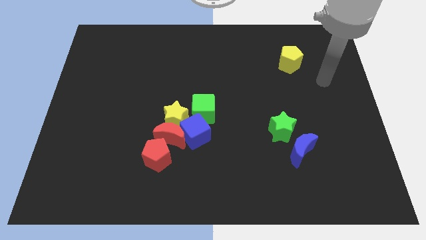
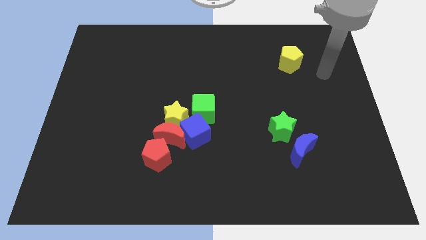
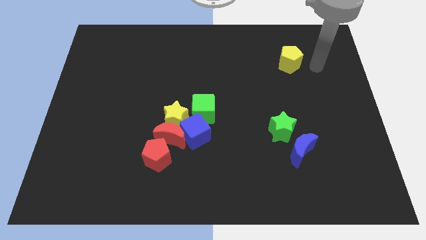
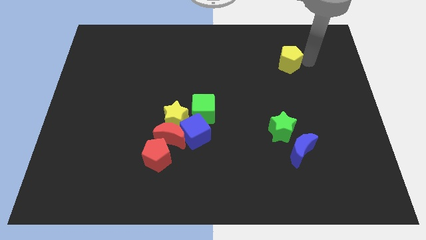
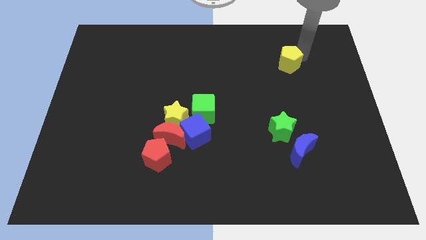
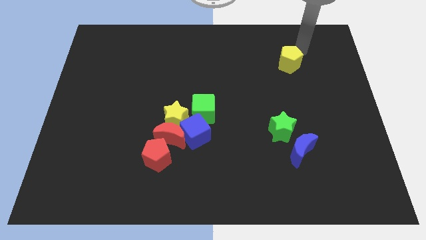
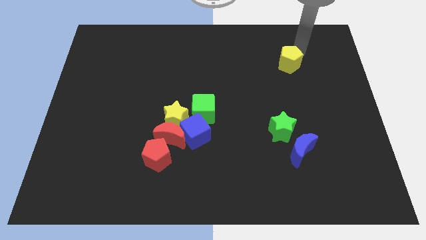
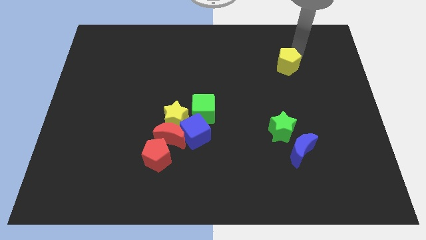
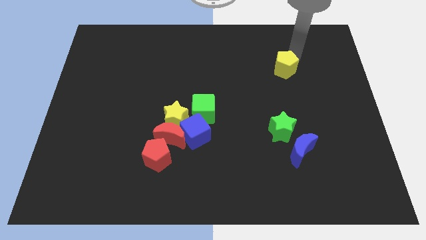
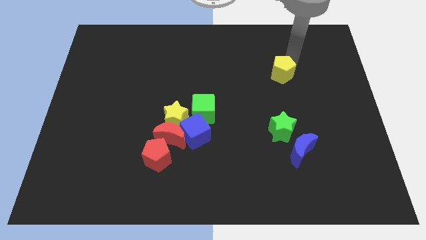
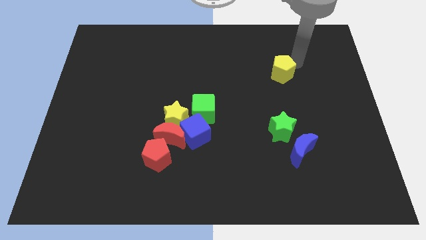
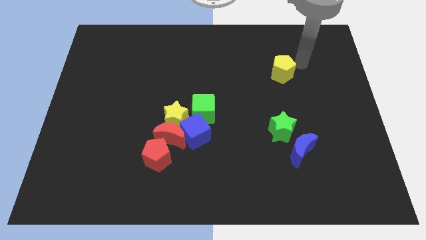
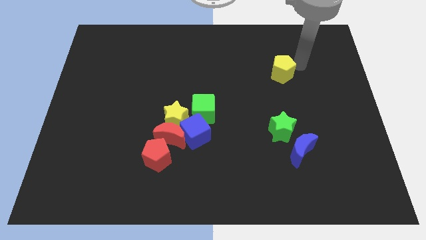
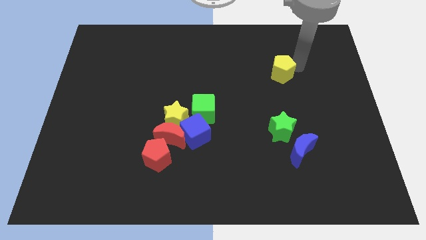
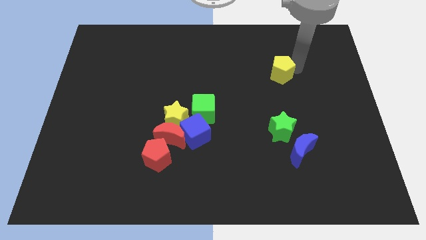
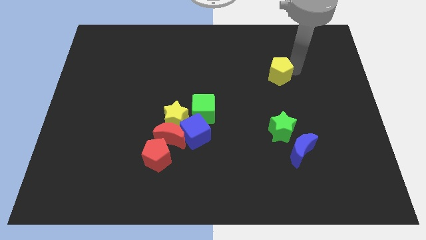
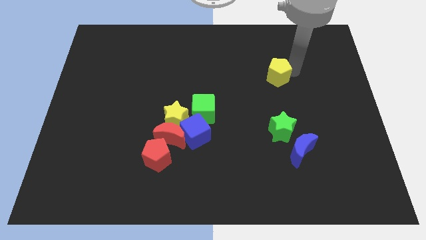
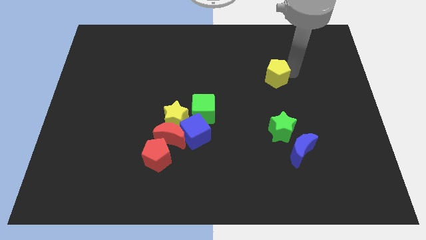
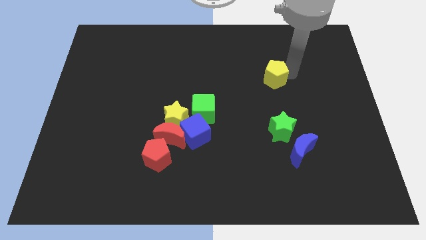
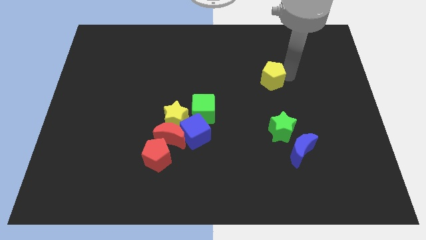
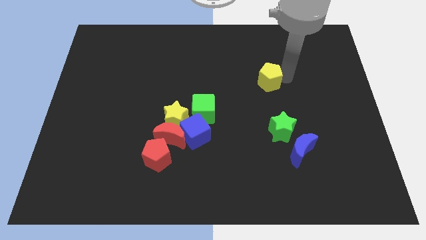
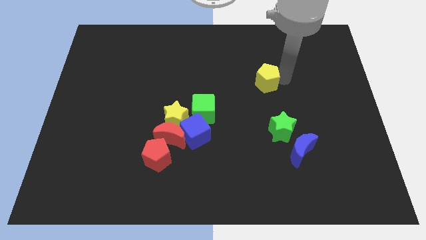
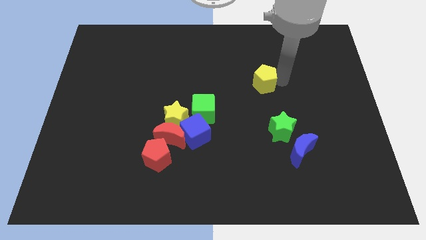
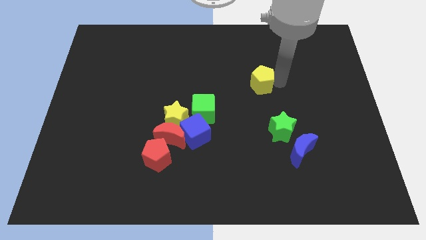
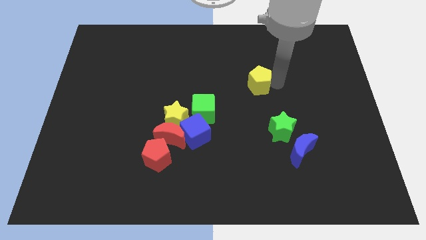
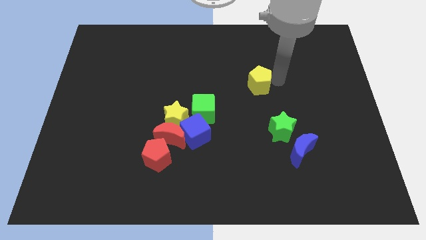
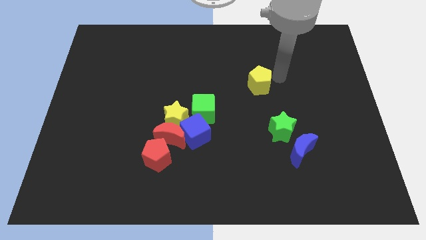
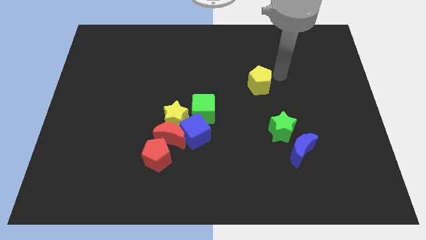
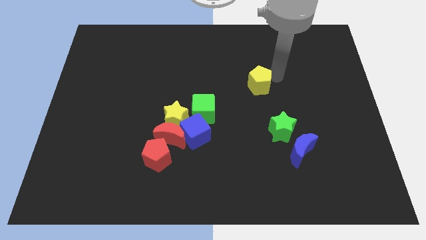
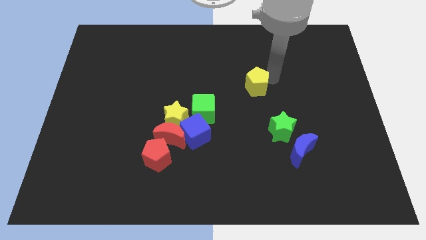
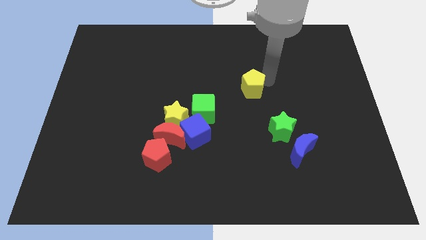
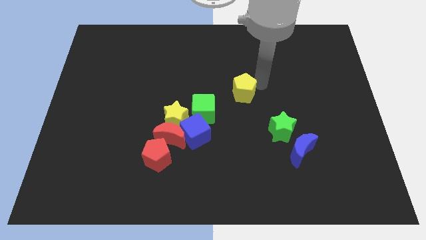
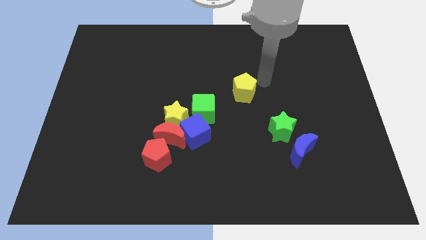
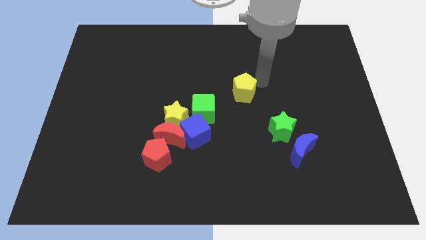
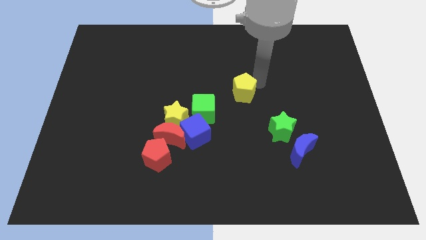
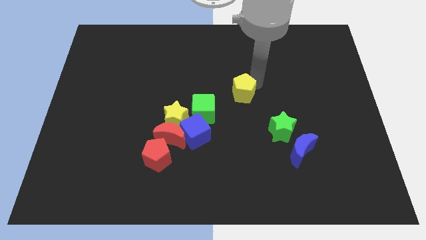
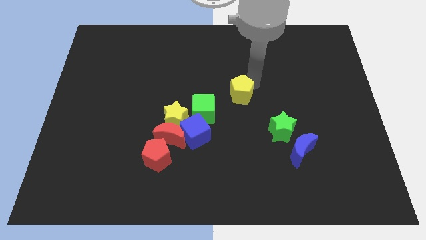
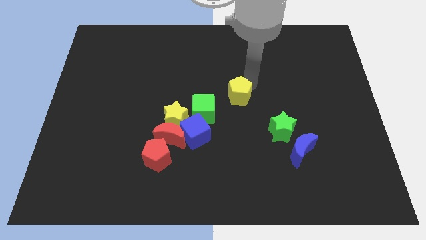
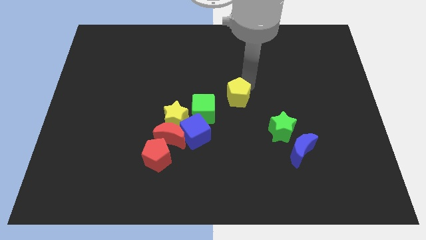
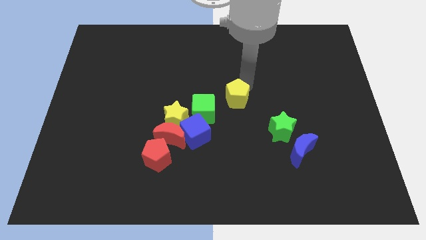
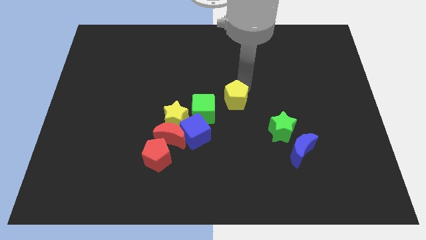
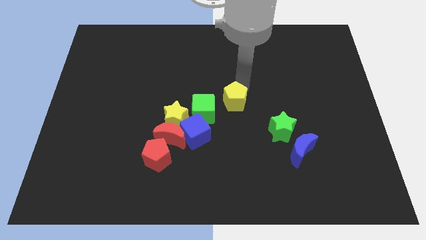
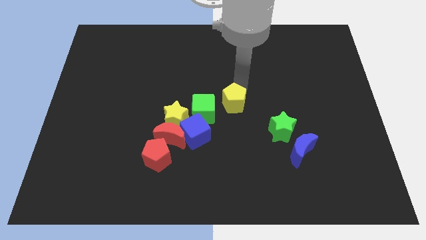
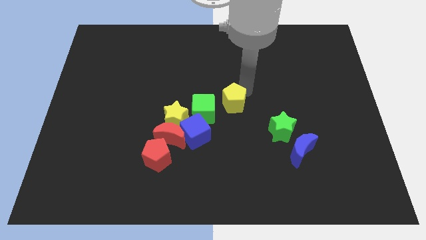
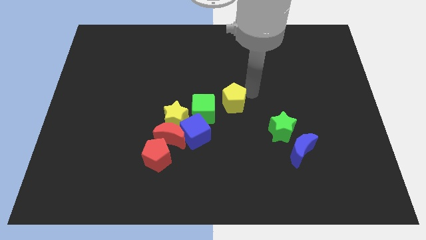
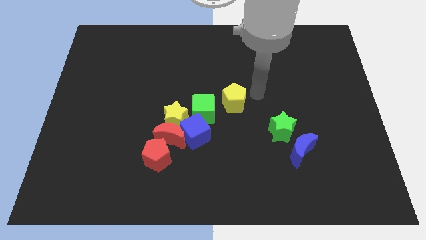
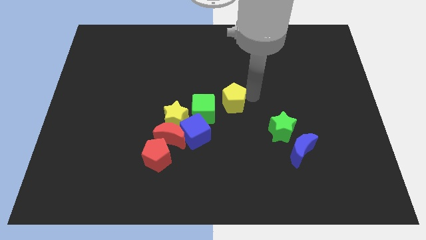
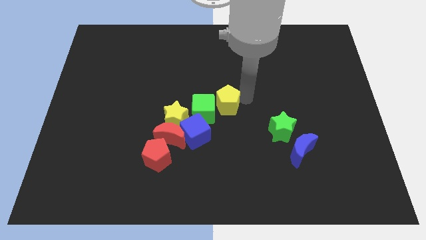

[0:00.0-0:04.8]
put the yellow pentagon towards the green cube

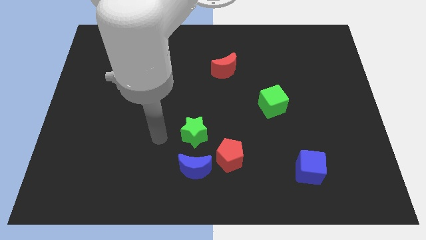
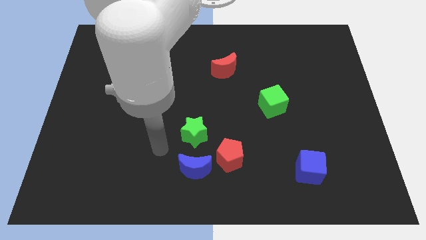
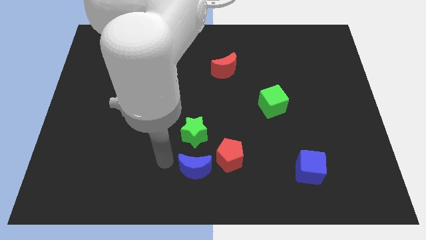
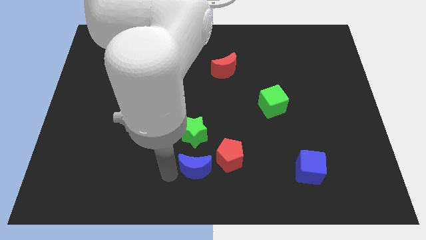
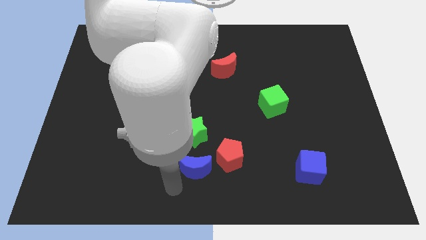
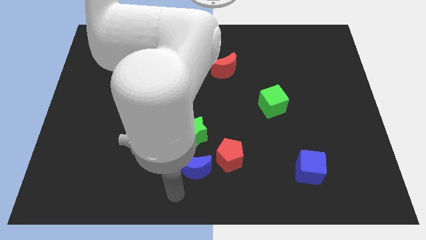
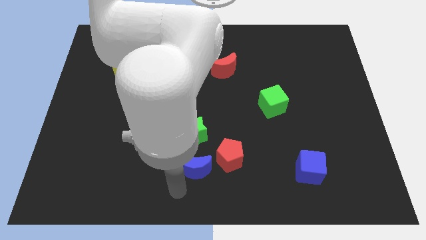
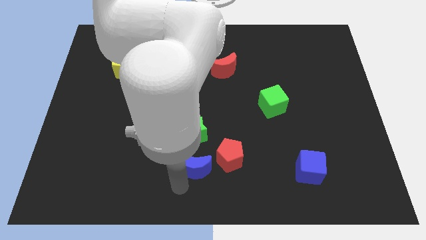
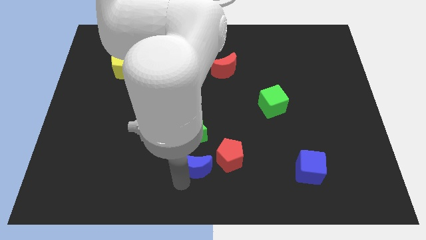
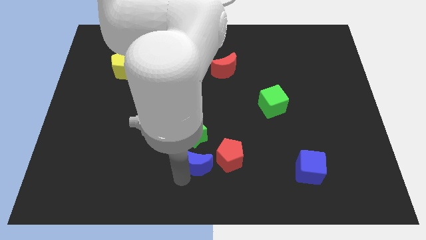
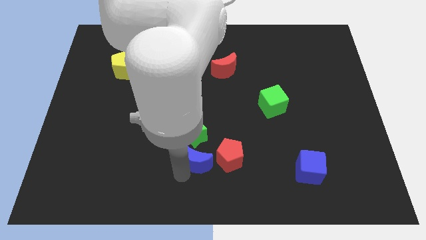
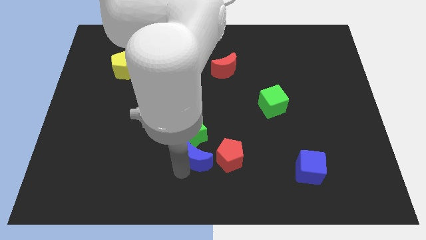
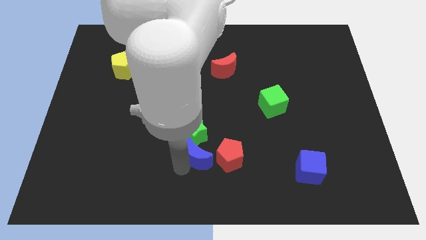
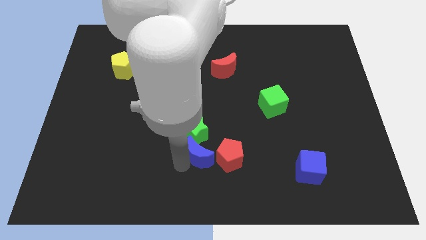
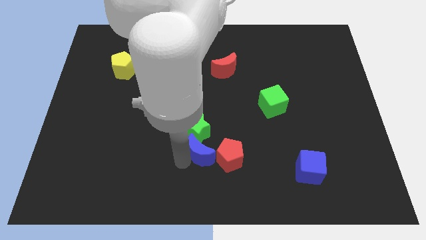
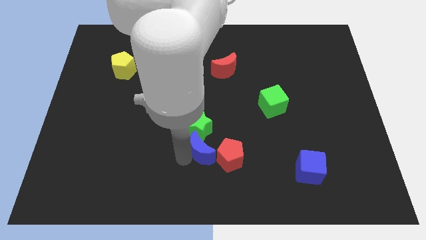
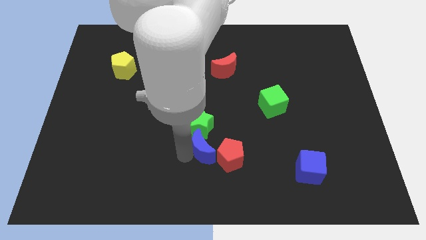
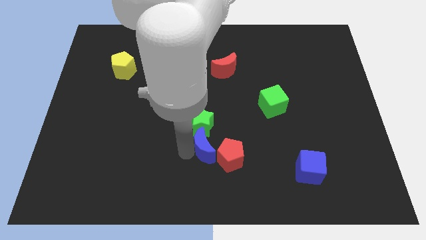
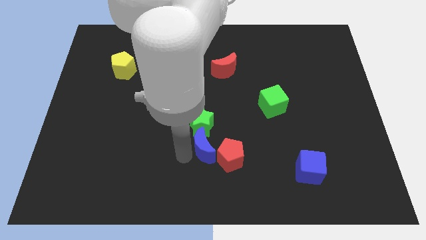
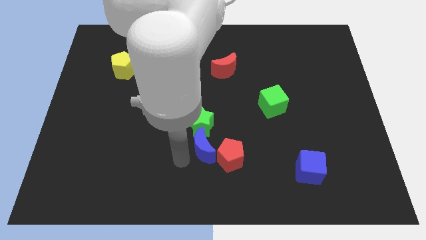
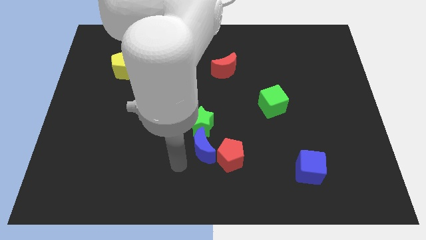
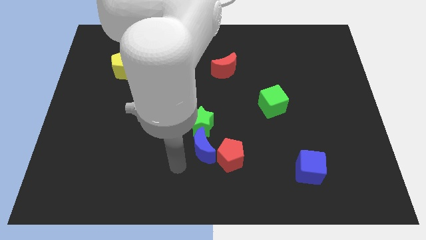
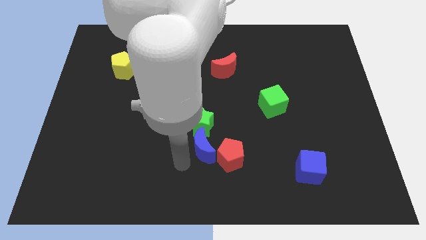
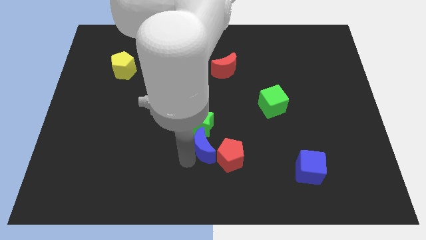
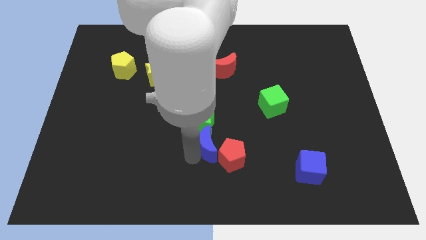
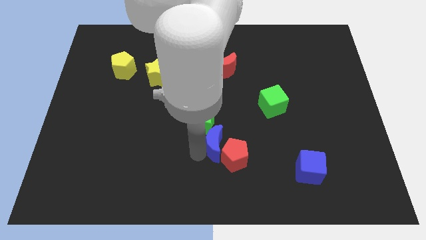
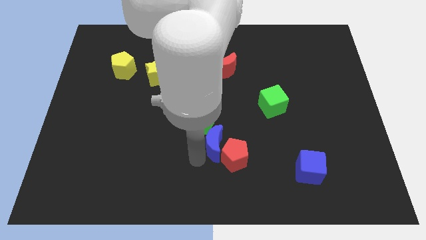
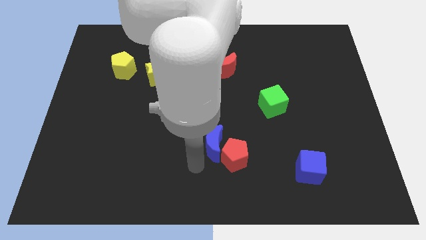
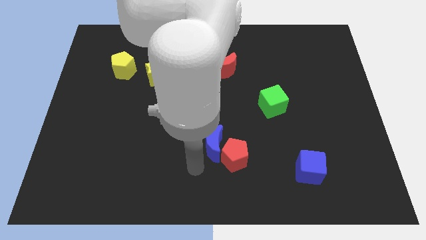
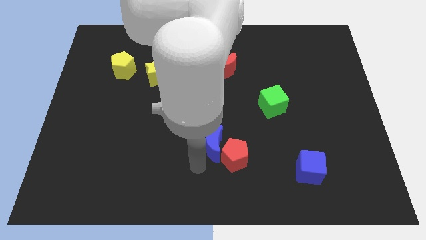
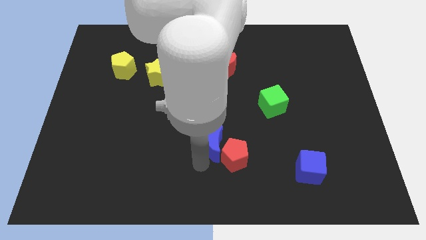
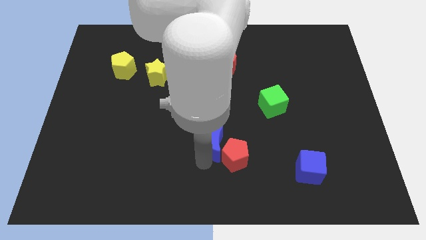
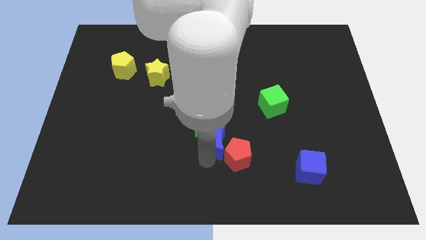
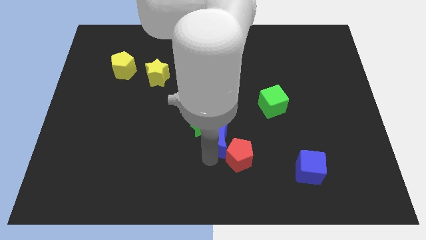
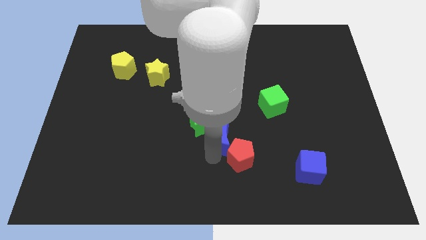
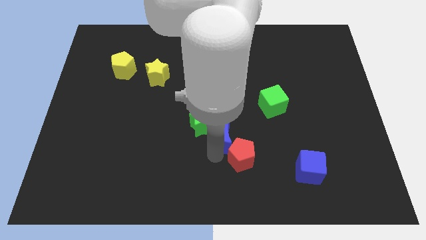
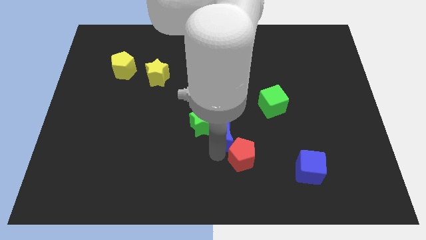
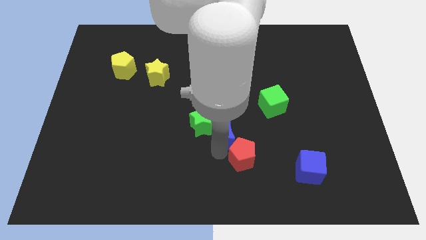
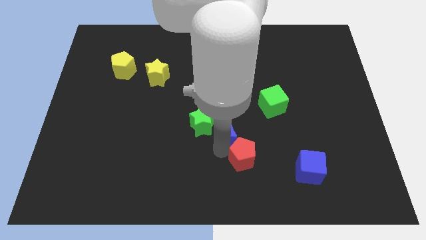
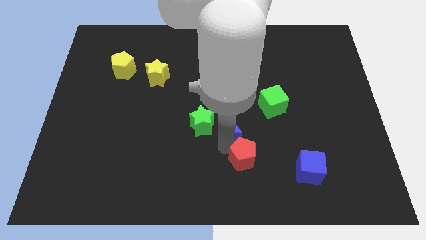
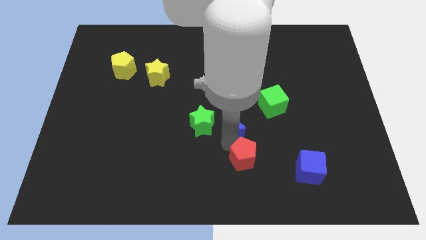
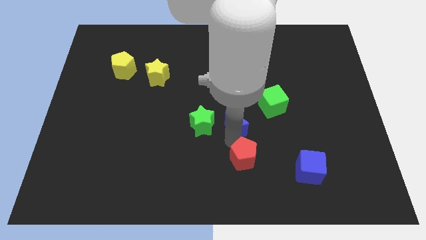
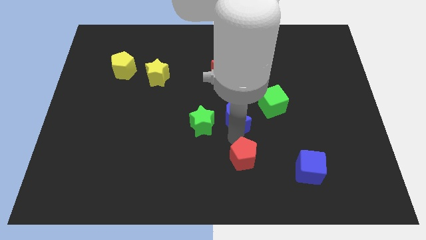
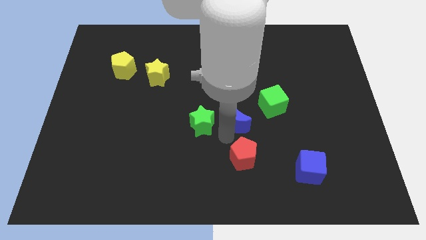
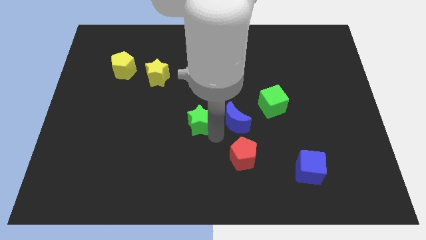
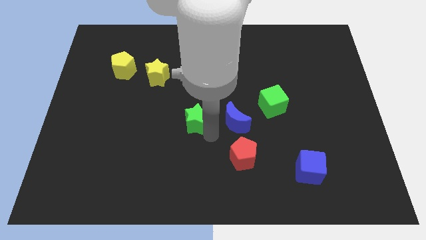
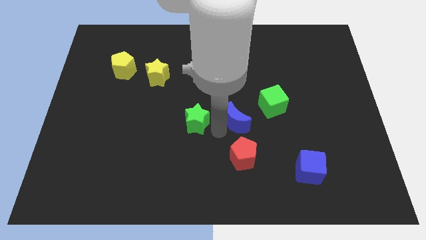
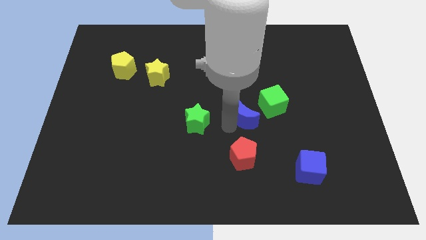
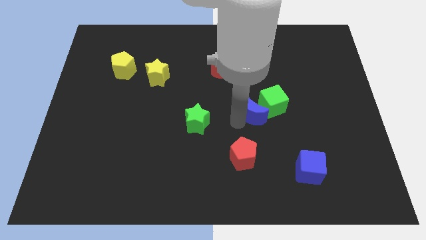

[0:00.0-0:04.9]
move the blue moon next to the green cube
